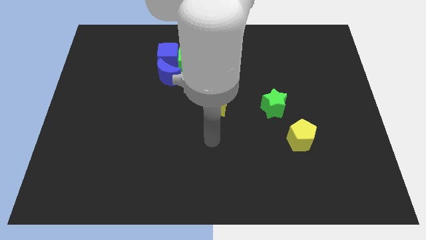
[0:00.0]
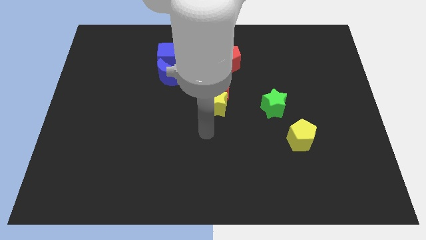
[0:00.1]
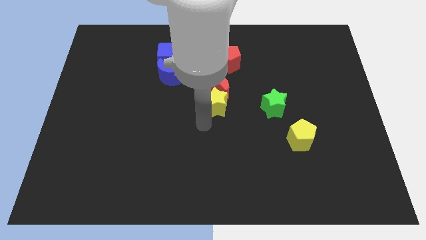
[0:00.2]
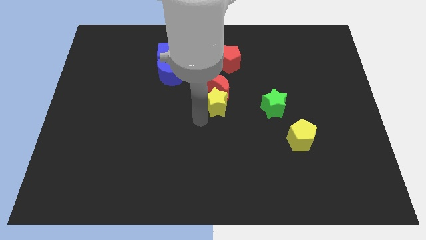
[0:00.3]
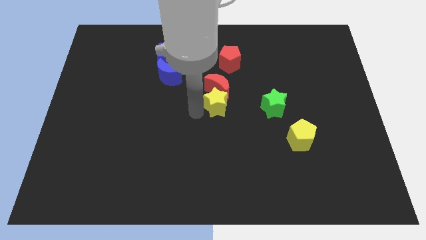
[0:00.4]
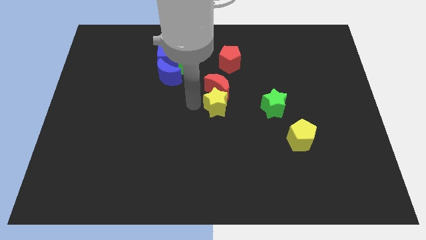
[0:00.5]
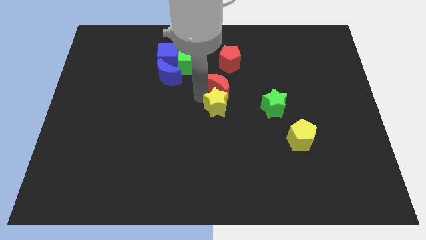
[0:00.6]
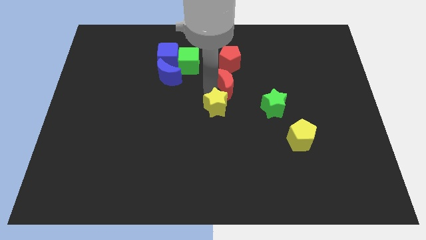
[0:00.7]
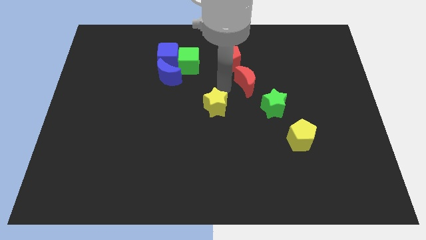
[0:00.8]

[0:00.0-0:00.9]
pull the yellow star apart from the red moon

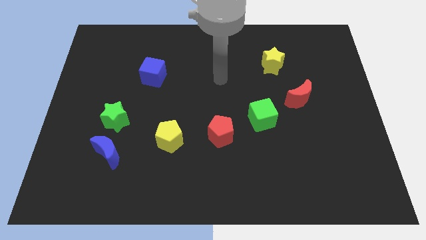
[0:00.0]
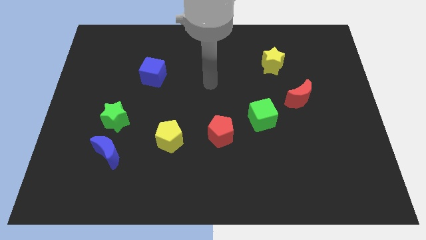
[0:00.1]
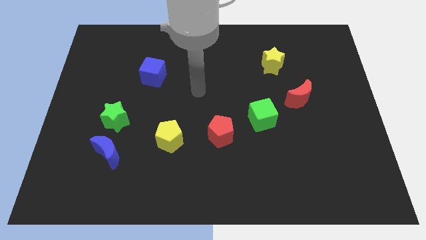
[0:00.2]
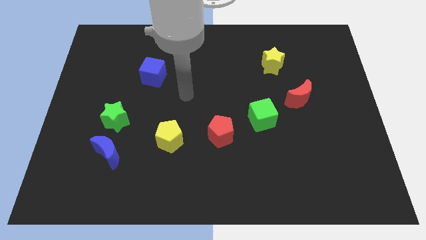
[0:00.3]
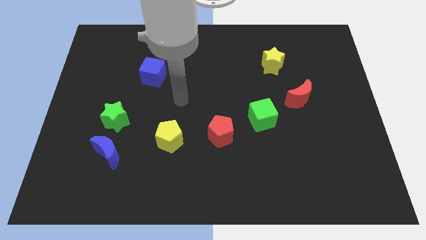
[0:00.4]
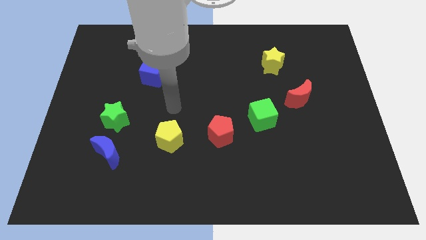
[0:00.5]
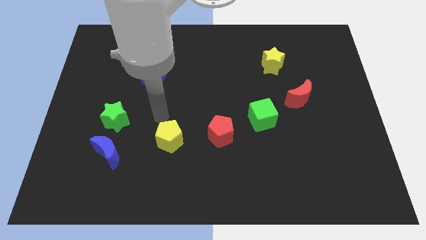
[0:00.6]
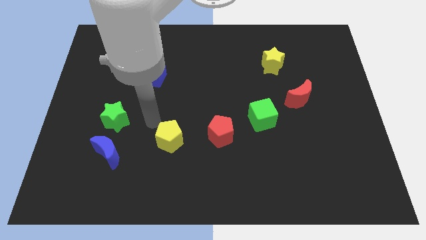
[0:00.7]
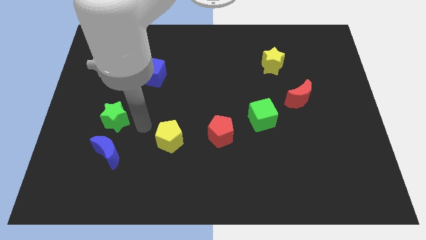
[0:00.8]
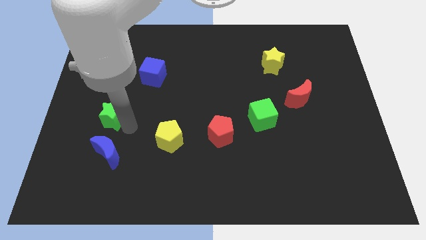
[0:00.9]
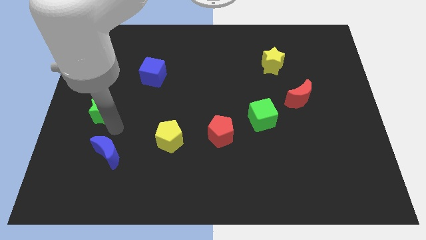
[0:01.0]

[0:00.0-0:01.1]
separate the blue moon from the green star

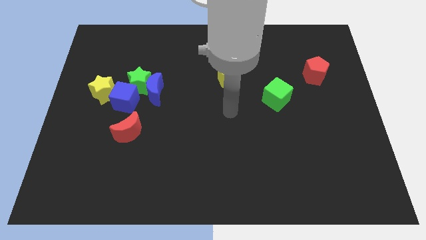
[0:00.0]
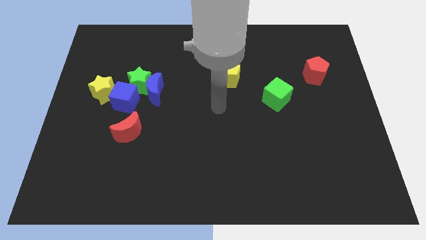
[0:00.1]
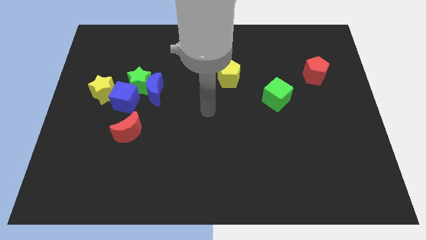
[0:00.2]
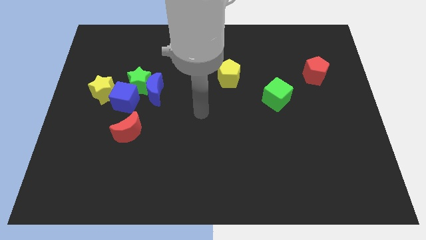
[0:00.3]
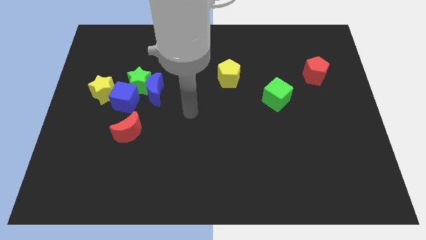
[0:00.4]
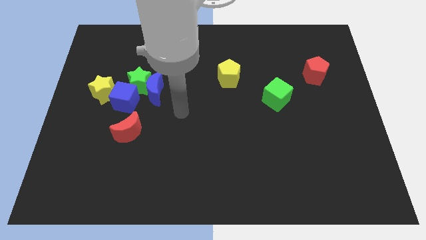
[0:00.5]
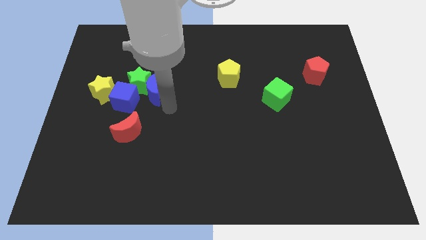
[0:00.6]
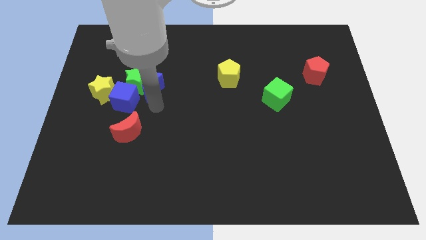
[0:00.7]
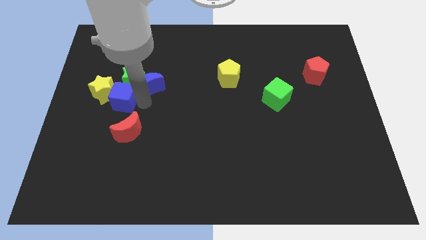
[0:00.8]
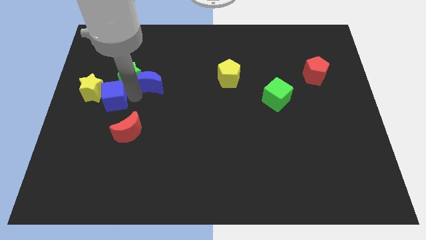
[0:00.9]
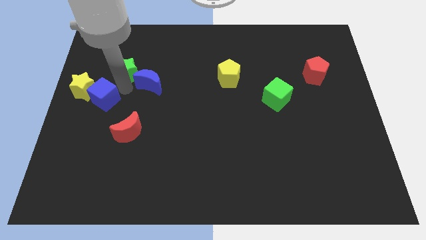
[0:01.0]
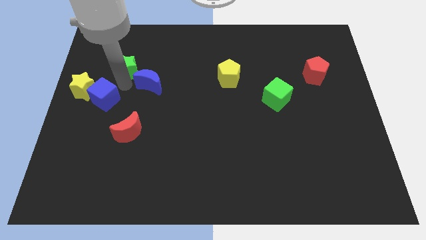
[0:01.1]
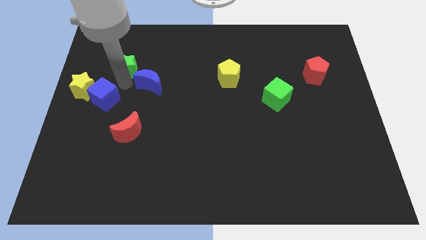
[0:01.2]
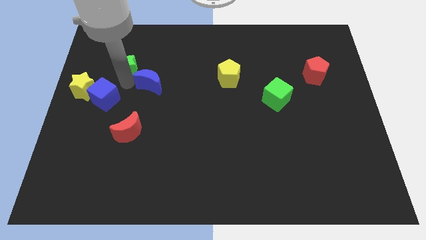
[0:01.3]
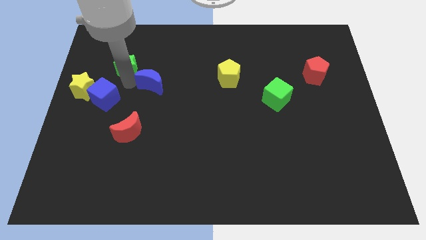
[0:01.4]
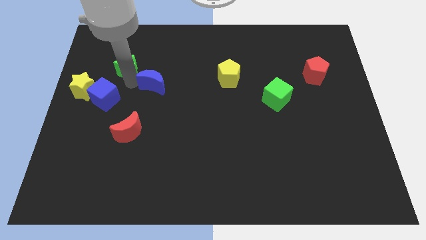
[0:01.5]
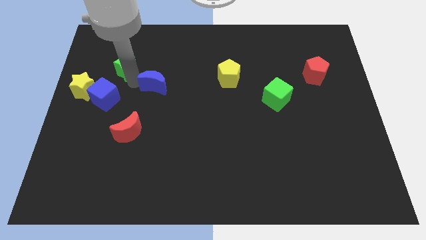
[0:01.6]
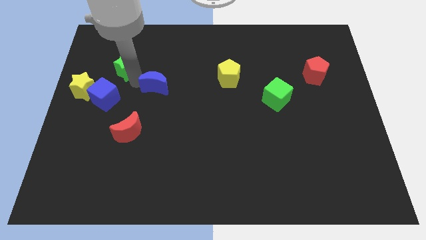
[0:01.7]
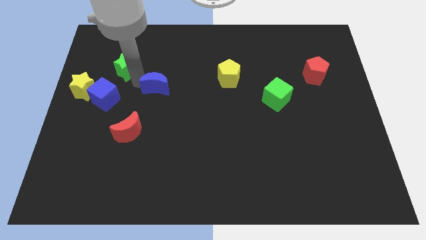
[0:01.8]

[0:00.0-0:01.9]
pull the blue moon apart from the green star and blue cube

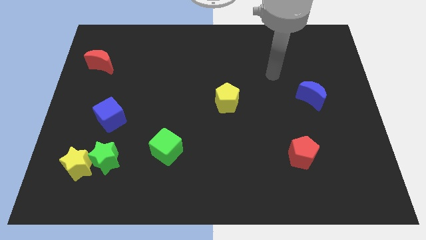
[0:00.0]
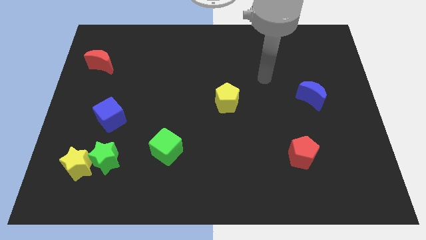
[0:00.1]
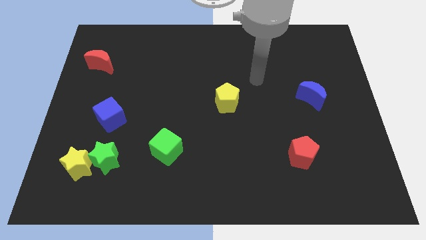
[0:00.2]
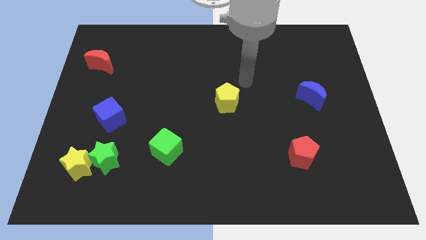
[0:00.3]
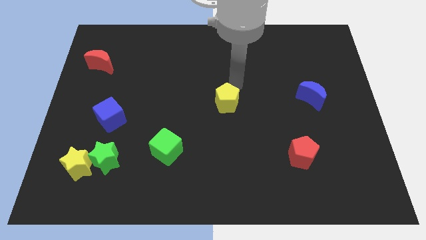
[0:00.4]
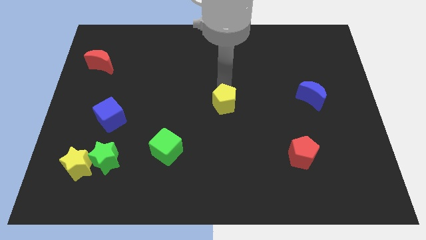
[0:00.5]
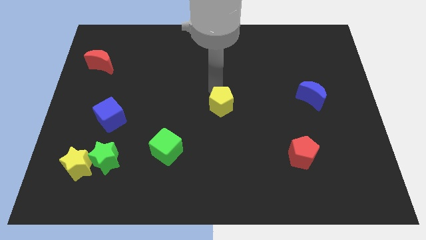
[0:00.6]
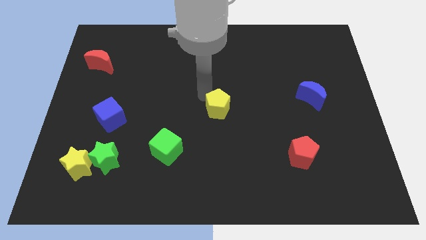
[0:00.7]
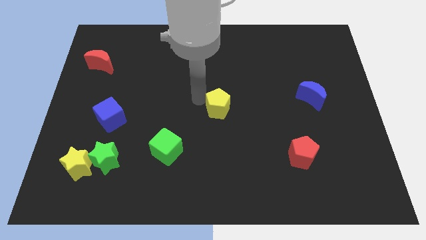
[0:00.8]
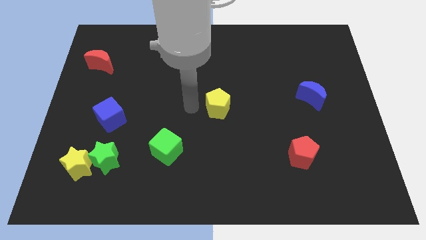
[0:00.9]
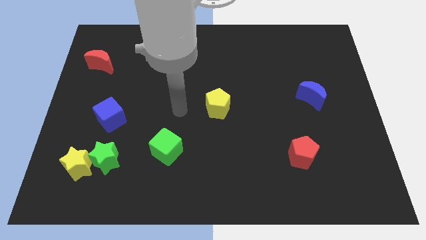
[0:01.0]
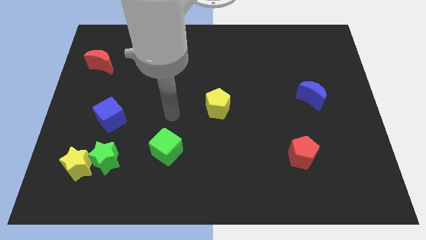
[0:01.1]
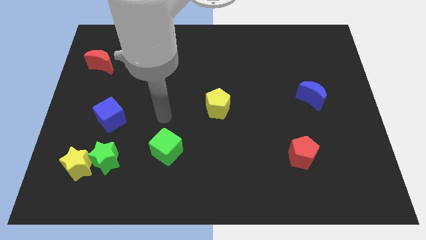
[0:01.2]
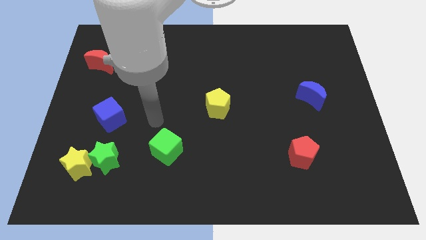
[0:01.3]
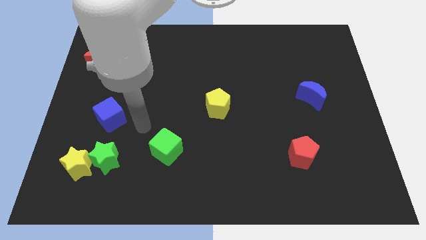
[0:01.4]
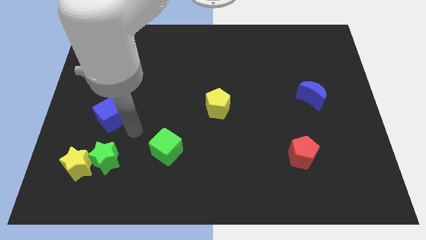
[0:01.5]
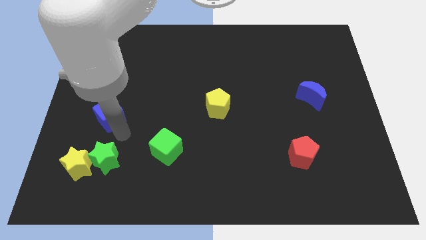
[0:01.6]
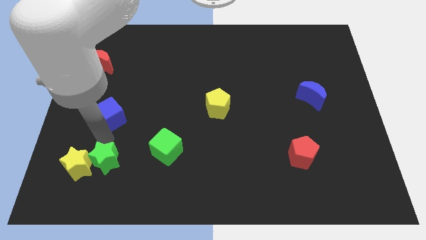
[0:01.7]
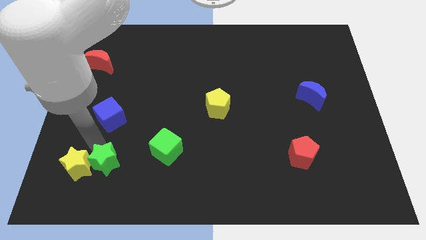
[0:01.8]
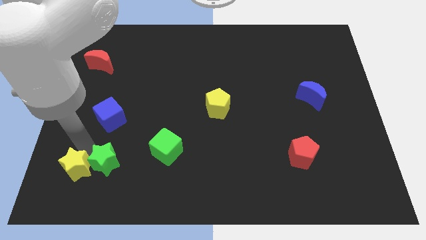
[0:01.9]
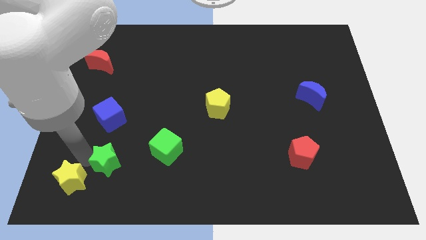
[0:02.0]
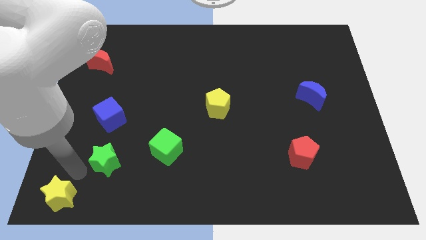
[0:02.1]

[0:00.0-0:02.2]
move the green star away from the yellow star

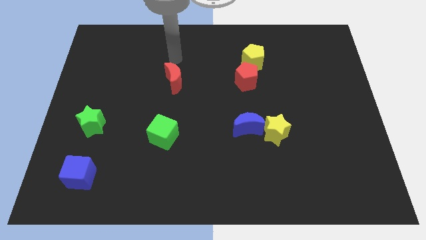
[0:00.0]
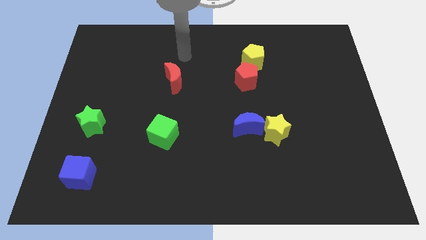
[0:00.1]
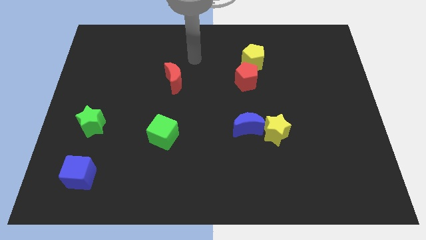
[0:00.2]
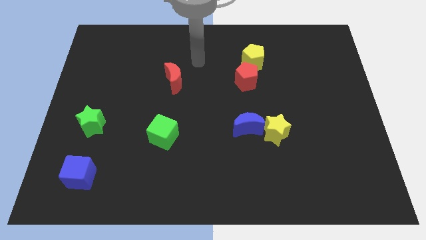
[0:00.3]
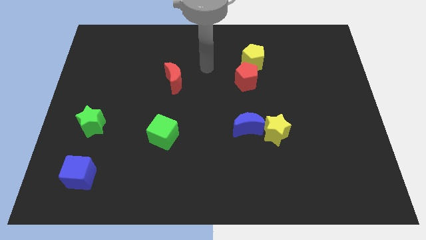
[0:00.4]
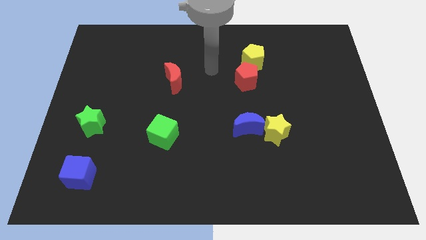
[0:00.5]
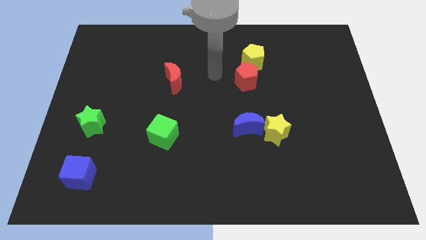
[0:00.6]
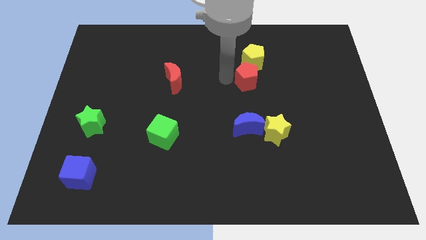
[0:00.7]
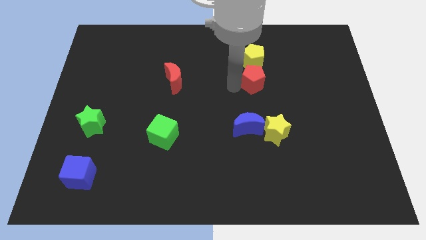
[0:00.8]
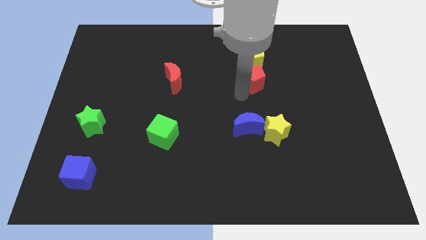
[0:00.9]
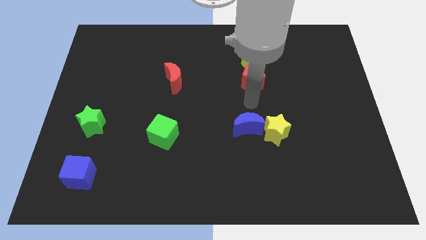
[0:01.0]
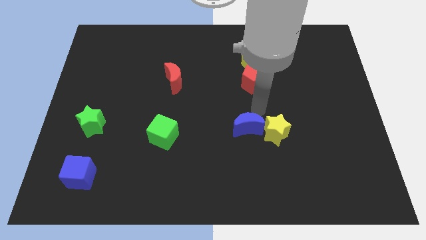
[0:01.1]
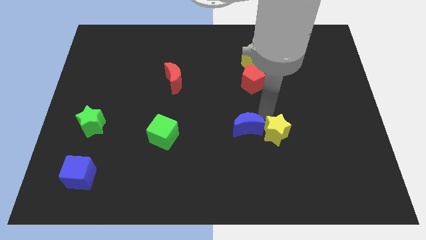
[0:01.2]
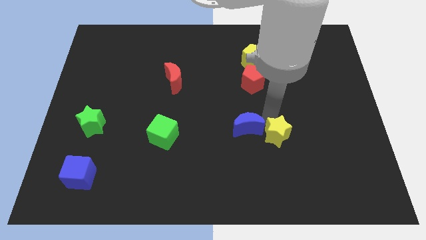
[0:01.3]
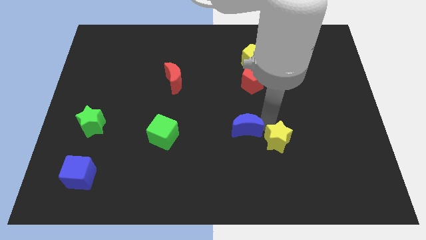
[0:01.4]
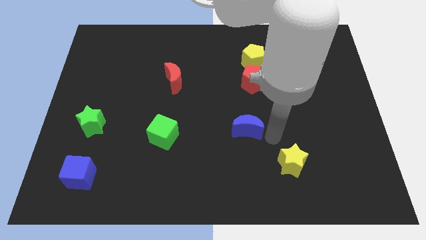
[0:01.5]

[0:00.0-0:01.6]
move the blue moon away from the yellow star

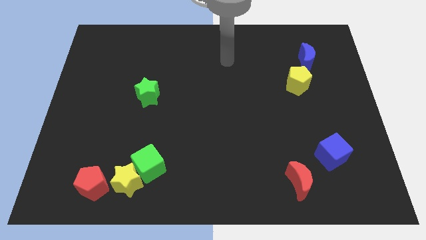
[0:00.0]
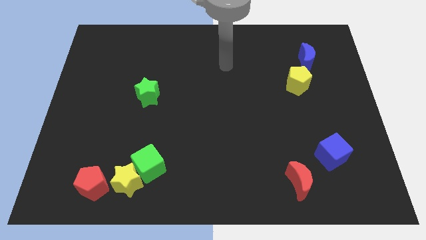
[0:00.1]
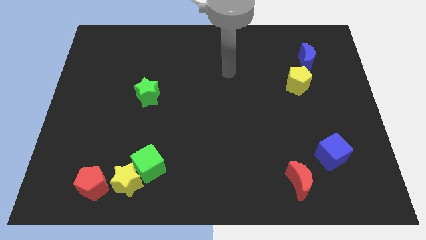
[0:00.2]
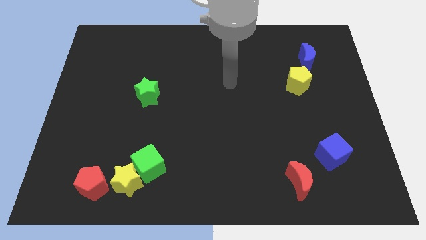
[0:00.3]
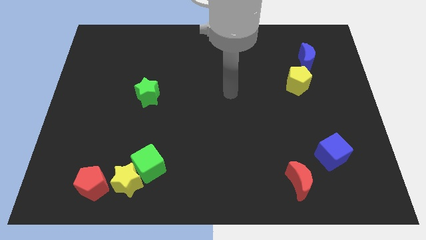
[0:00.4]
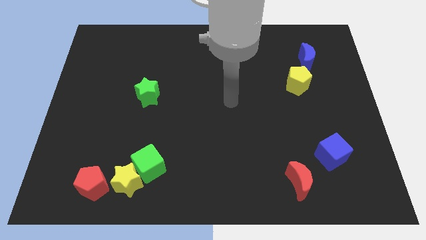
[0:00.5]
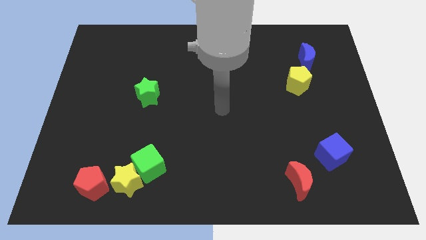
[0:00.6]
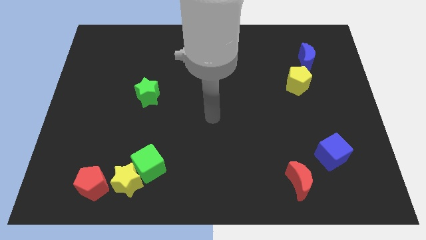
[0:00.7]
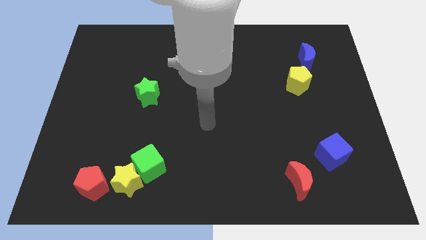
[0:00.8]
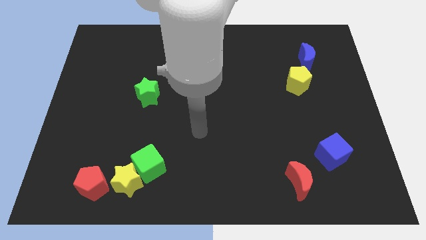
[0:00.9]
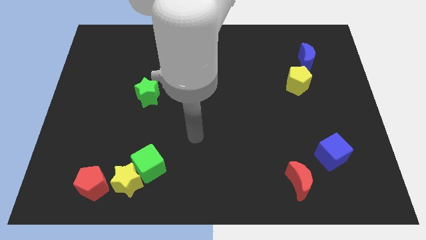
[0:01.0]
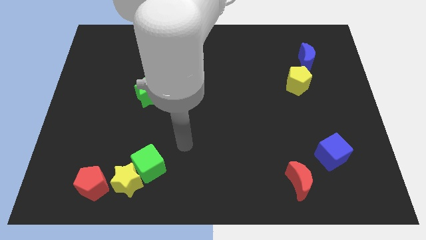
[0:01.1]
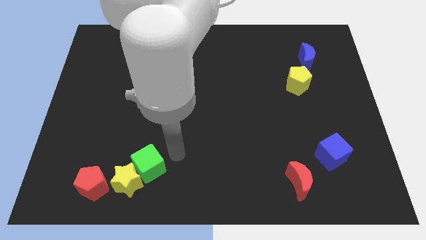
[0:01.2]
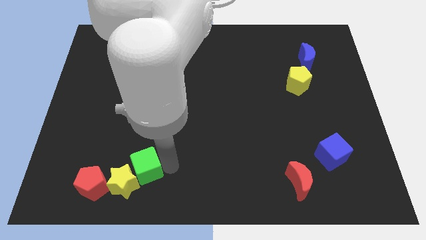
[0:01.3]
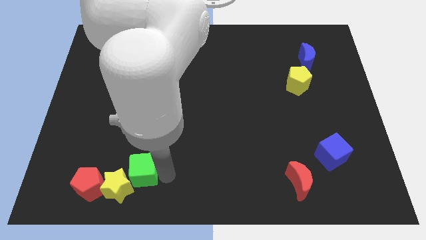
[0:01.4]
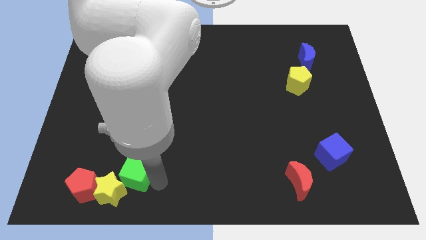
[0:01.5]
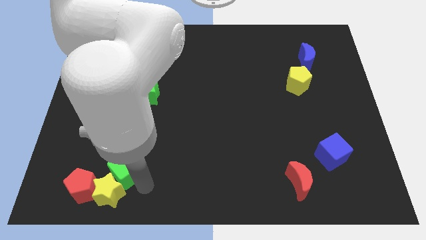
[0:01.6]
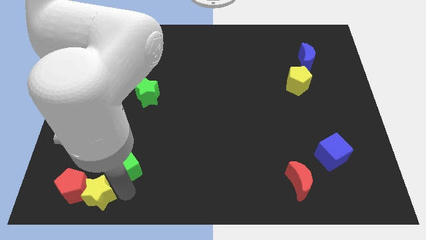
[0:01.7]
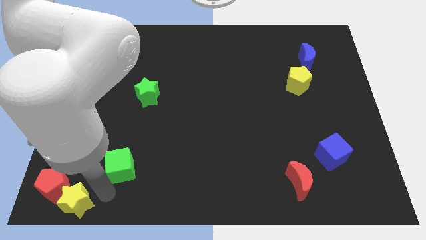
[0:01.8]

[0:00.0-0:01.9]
separate the green cube from the yellow star
